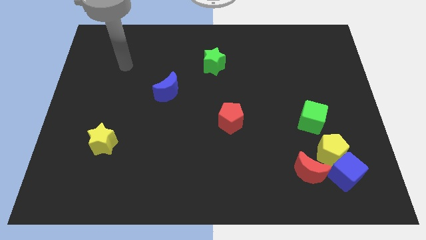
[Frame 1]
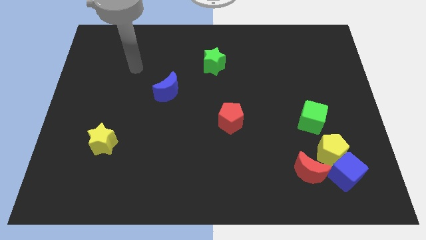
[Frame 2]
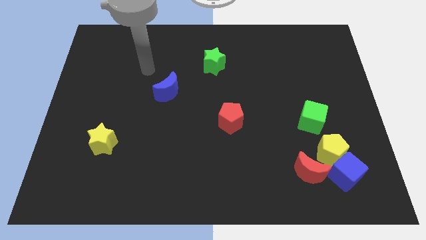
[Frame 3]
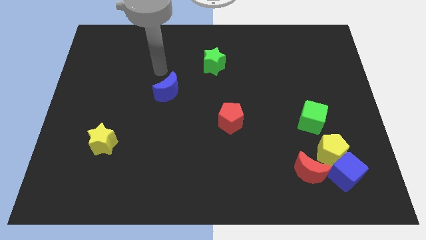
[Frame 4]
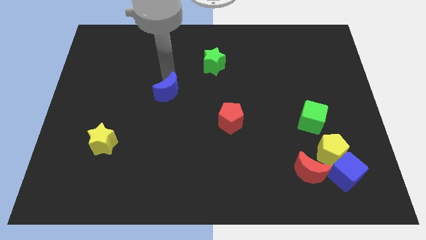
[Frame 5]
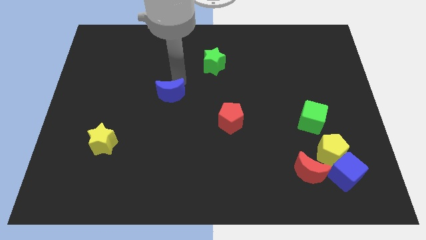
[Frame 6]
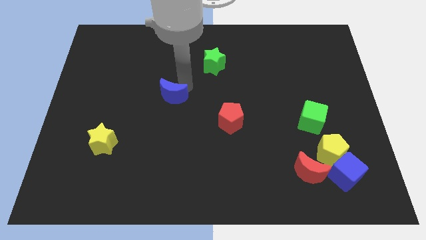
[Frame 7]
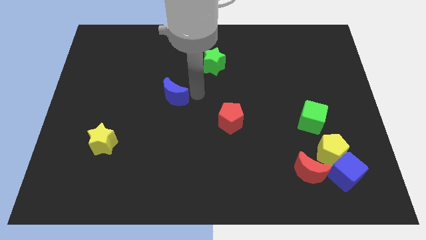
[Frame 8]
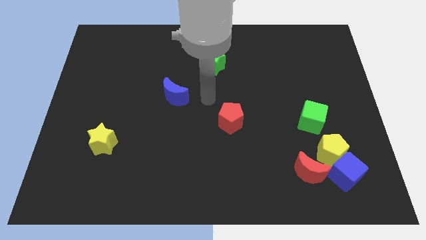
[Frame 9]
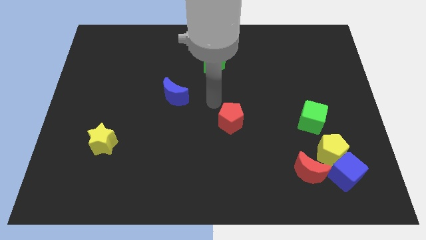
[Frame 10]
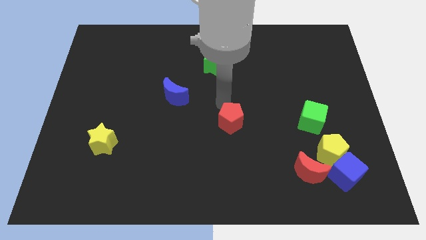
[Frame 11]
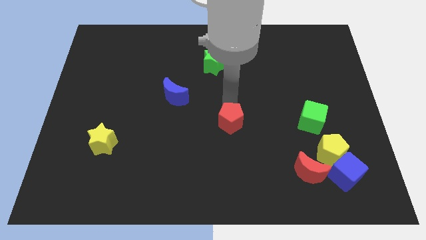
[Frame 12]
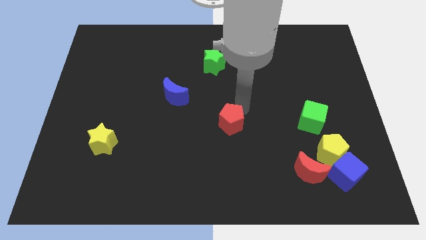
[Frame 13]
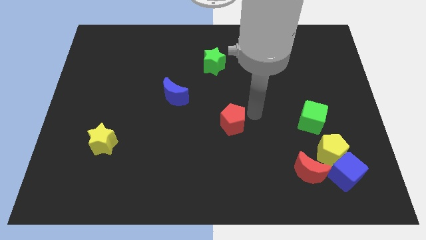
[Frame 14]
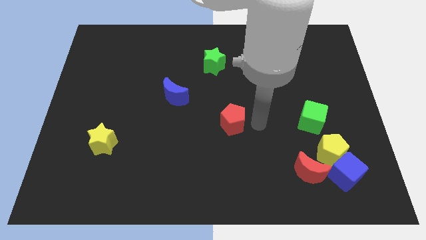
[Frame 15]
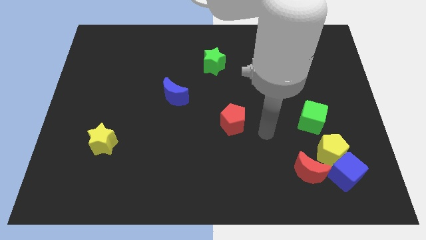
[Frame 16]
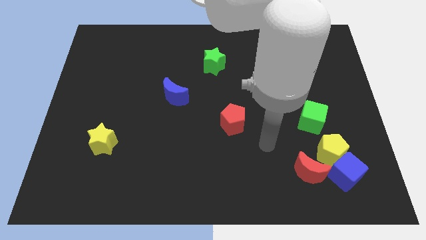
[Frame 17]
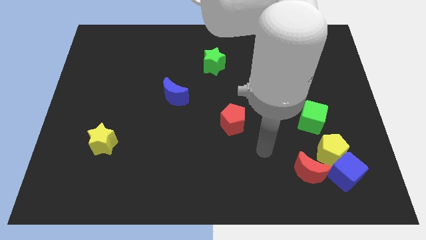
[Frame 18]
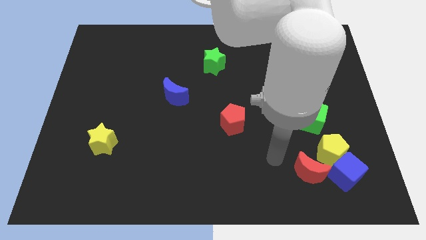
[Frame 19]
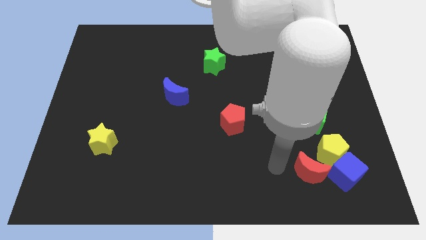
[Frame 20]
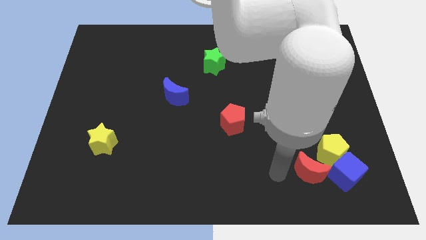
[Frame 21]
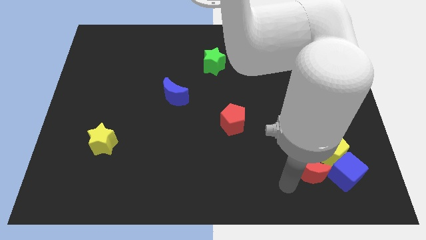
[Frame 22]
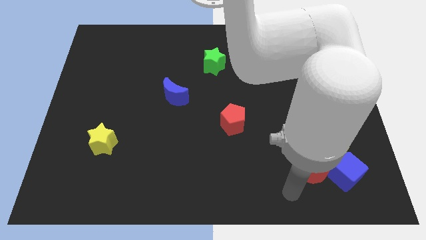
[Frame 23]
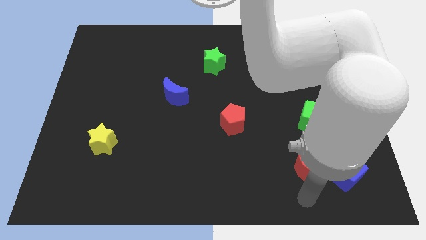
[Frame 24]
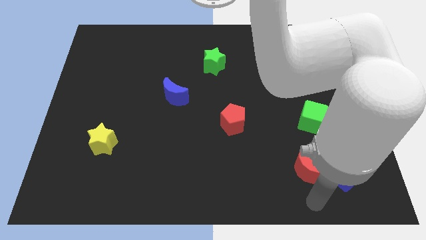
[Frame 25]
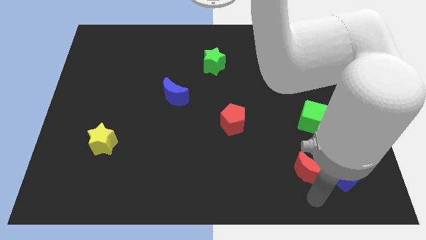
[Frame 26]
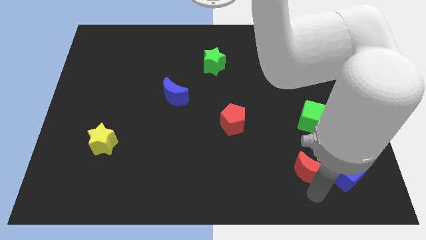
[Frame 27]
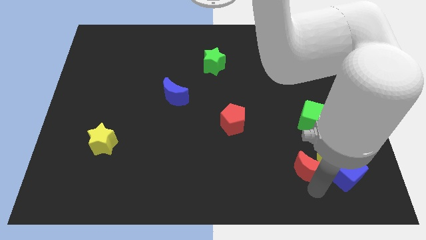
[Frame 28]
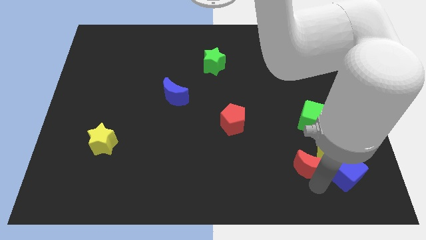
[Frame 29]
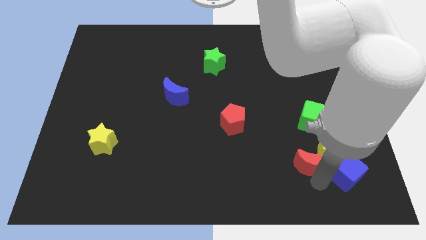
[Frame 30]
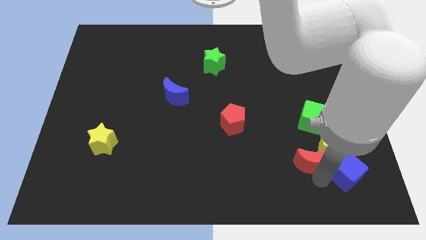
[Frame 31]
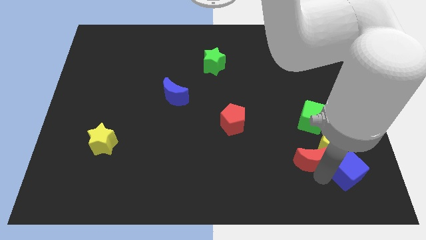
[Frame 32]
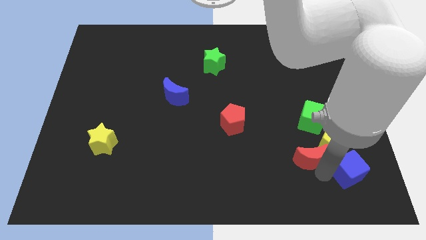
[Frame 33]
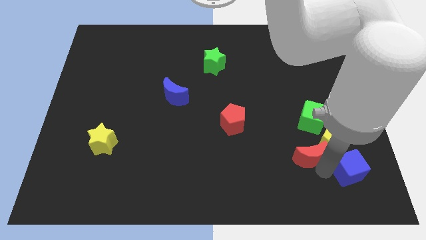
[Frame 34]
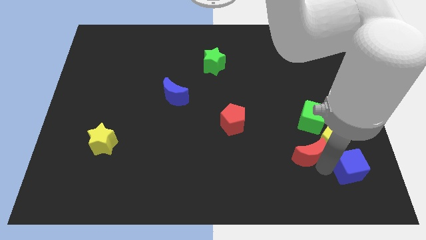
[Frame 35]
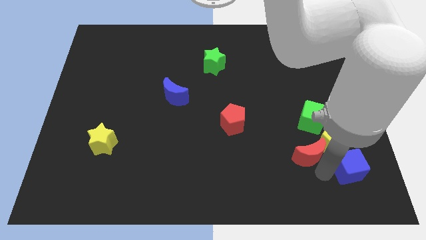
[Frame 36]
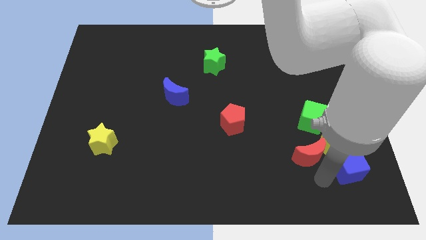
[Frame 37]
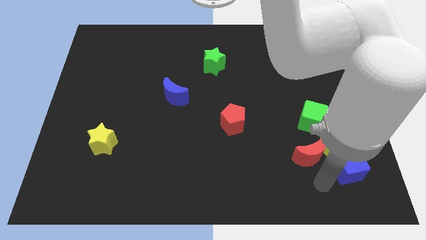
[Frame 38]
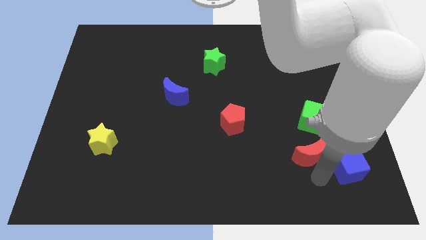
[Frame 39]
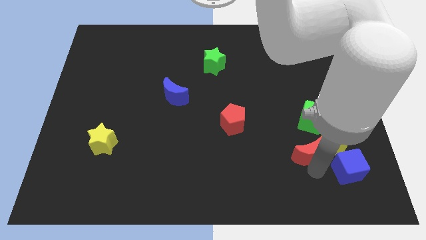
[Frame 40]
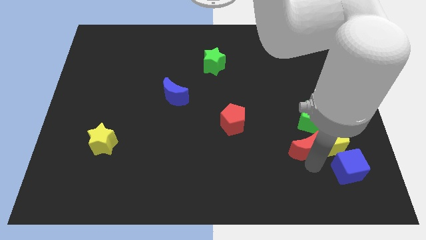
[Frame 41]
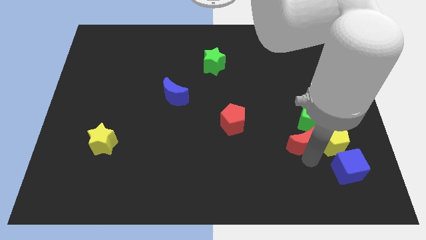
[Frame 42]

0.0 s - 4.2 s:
move the red moon slightly up

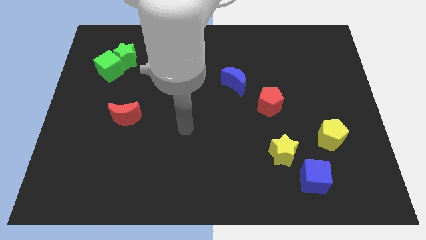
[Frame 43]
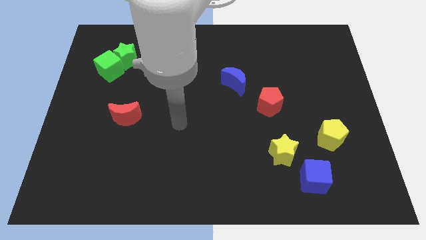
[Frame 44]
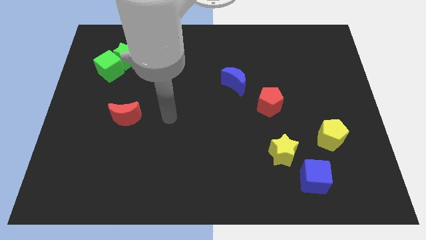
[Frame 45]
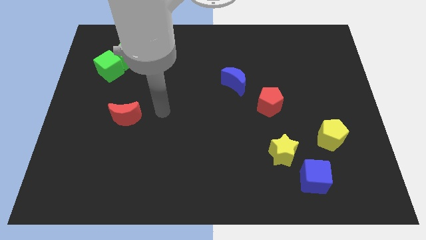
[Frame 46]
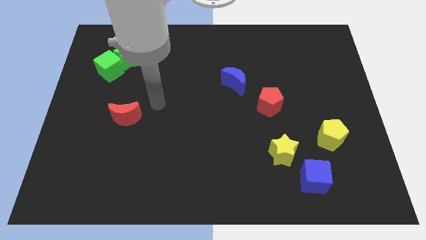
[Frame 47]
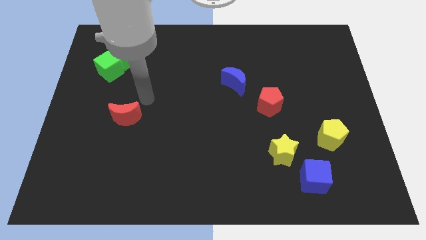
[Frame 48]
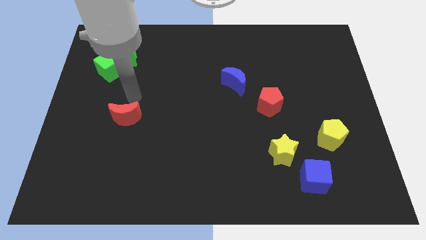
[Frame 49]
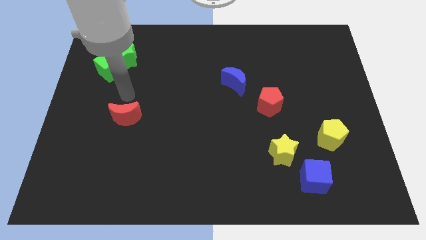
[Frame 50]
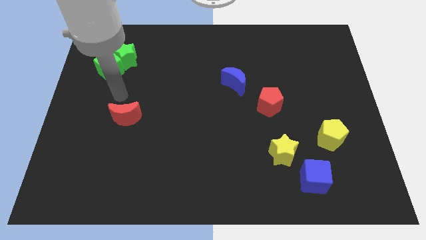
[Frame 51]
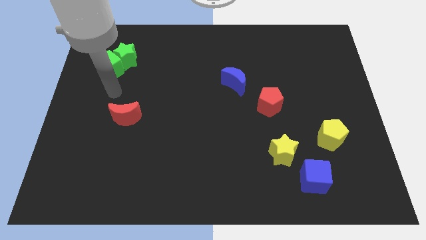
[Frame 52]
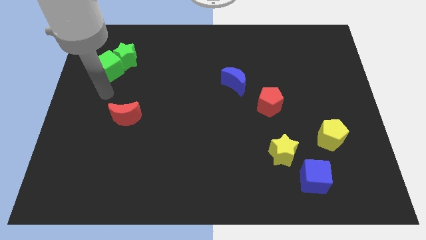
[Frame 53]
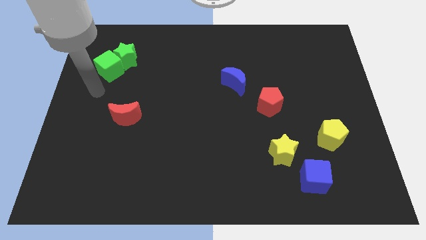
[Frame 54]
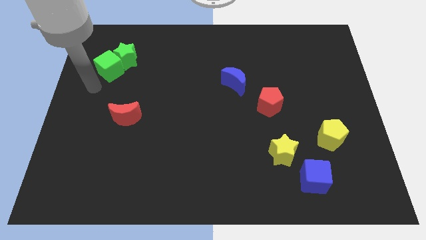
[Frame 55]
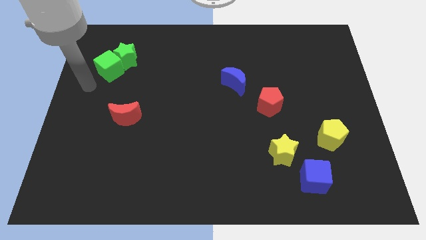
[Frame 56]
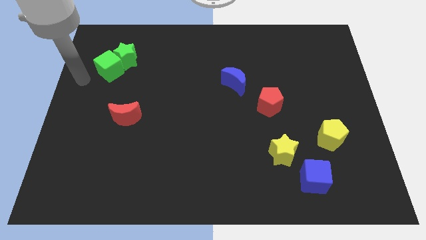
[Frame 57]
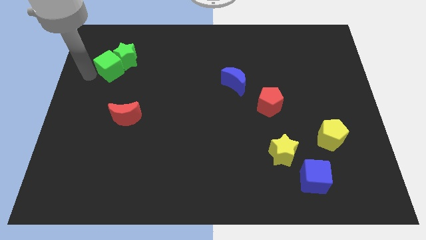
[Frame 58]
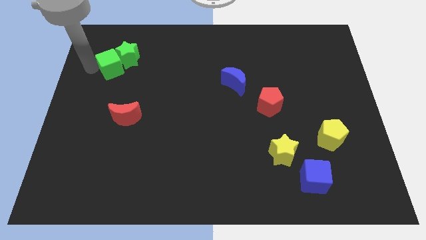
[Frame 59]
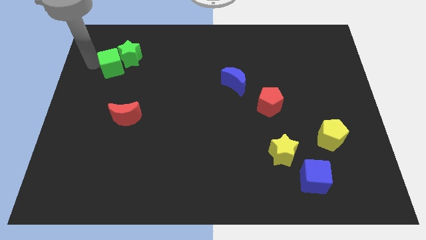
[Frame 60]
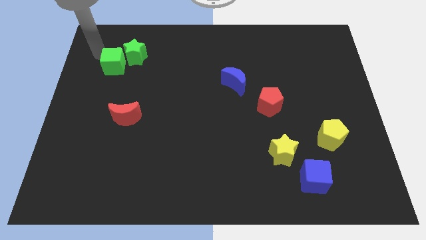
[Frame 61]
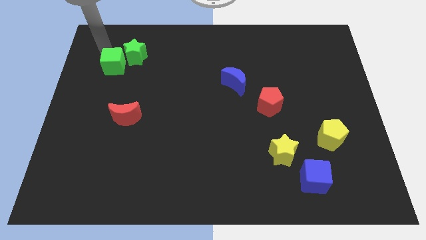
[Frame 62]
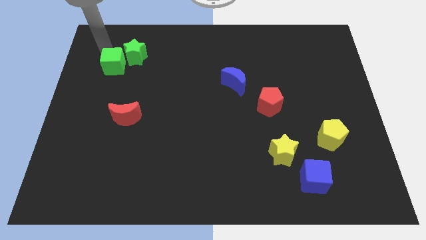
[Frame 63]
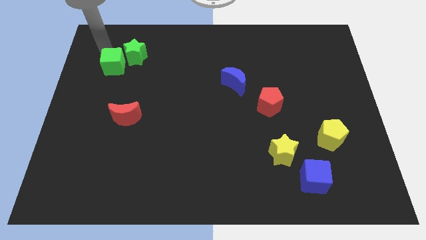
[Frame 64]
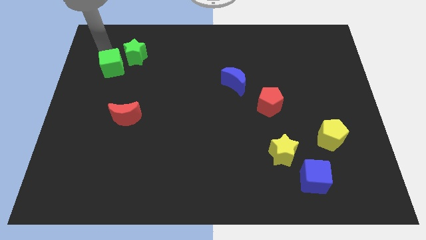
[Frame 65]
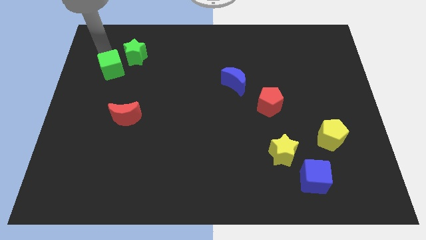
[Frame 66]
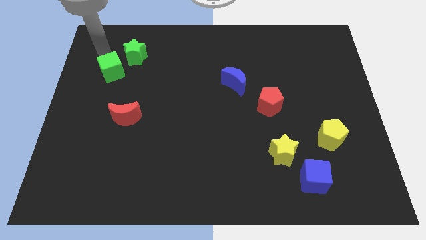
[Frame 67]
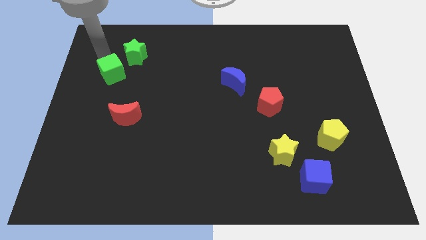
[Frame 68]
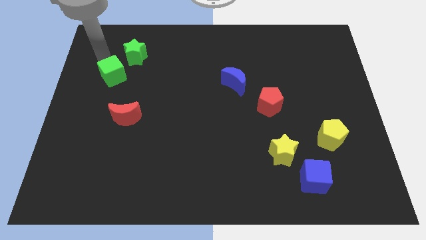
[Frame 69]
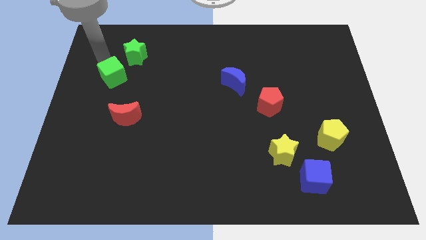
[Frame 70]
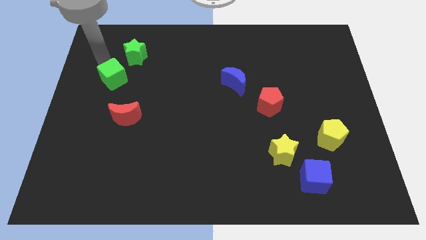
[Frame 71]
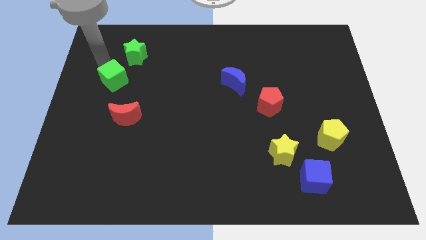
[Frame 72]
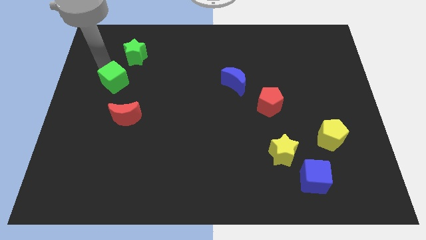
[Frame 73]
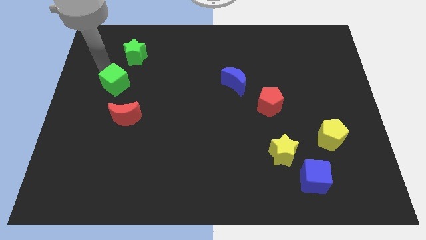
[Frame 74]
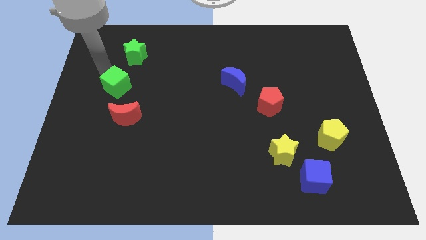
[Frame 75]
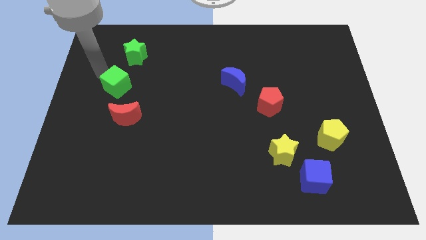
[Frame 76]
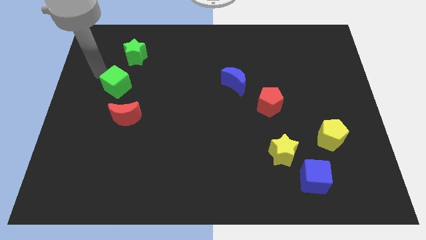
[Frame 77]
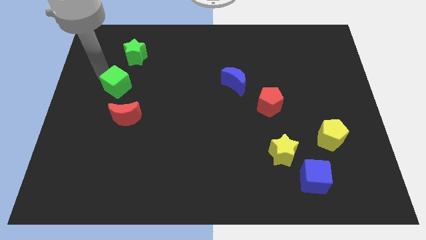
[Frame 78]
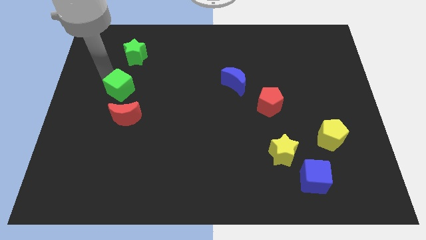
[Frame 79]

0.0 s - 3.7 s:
slide the green cube a bit down and then to the right
